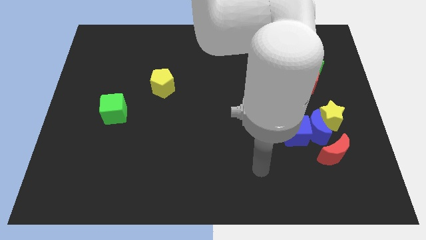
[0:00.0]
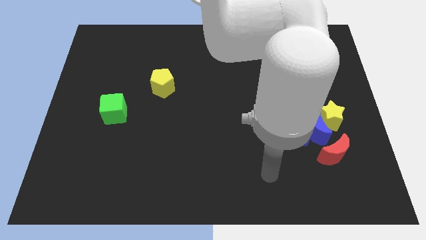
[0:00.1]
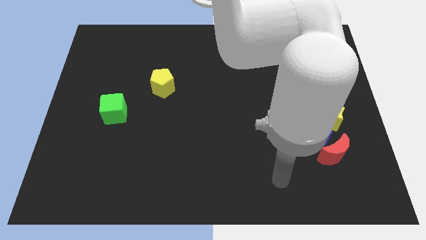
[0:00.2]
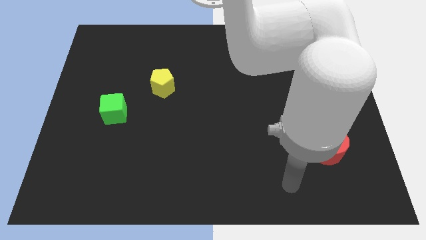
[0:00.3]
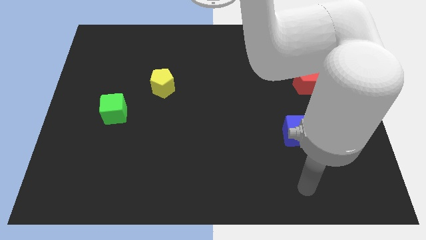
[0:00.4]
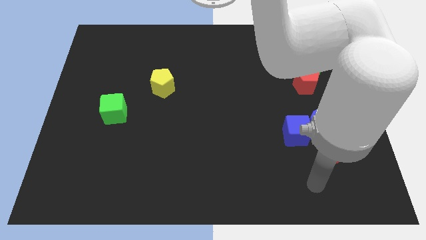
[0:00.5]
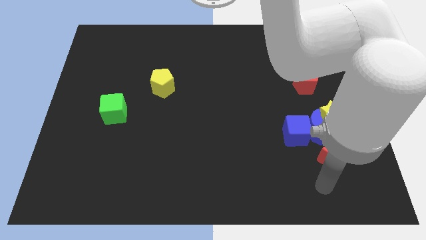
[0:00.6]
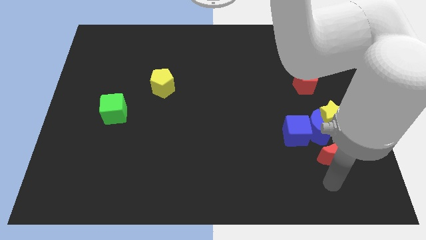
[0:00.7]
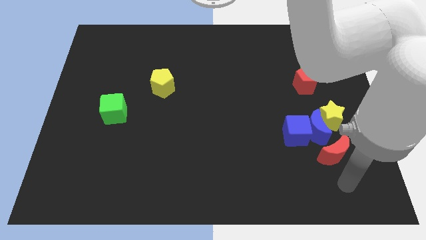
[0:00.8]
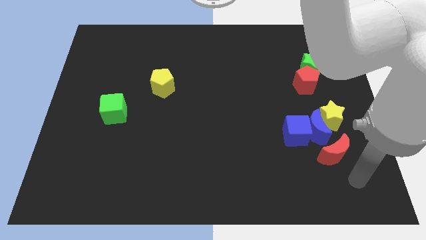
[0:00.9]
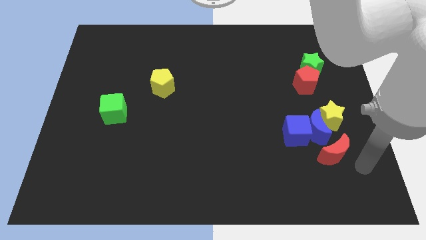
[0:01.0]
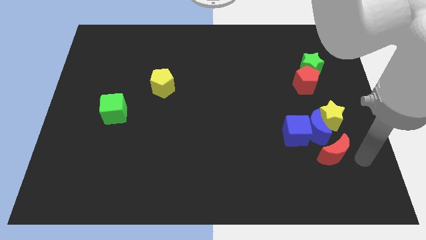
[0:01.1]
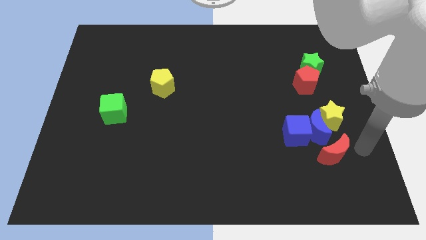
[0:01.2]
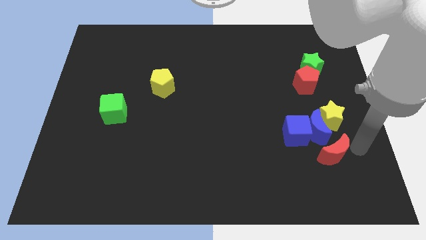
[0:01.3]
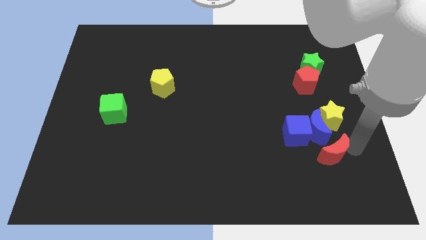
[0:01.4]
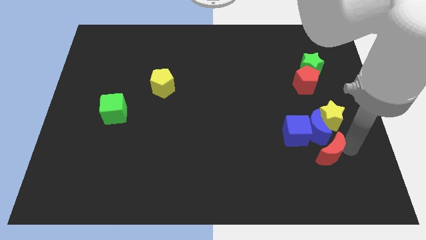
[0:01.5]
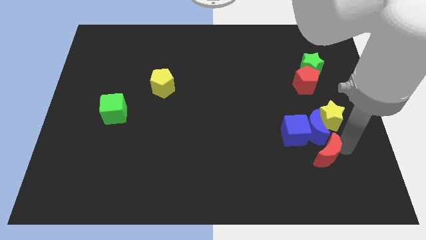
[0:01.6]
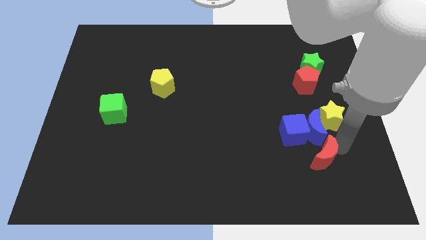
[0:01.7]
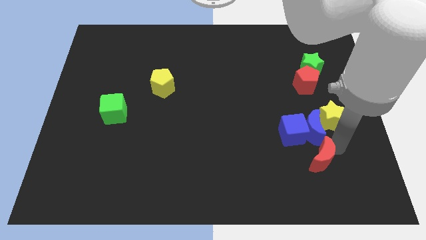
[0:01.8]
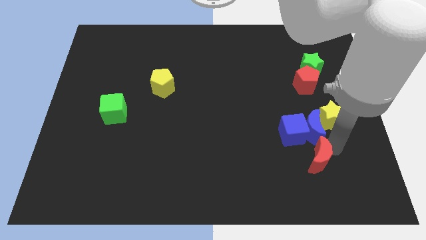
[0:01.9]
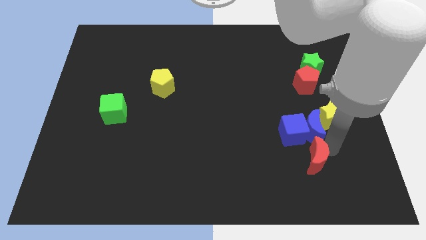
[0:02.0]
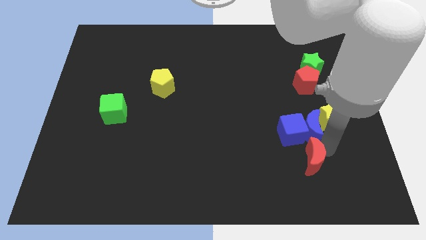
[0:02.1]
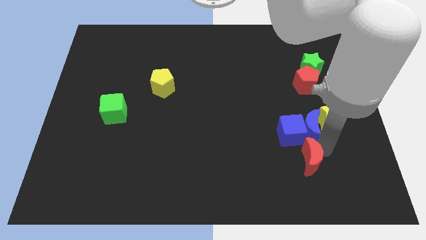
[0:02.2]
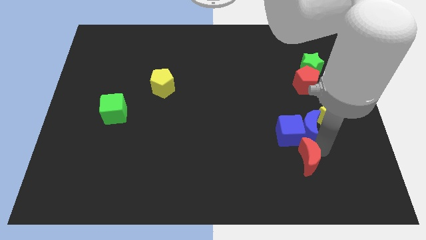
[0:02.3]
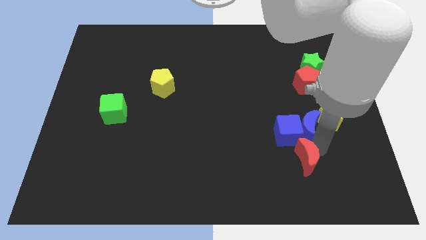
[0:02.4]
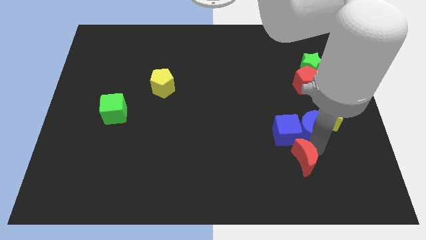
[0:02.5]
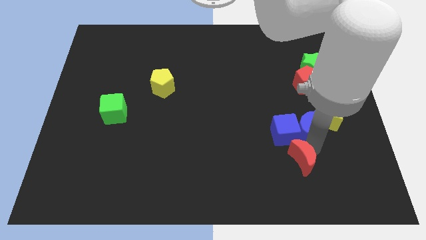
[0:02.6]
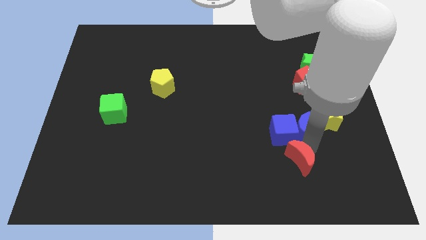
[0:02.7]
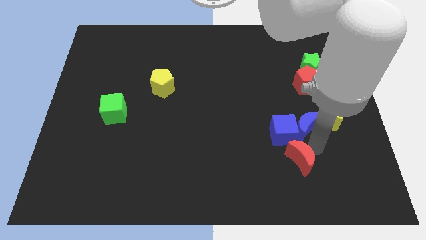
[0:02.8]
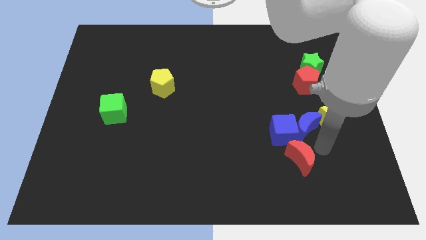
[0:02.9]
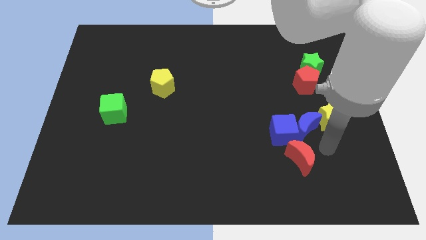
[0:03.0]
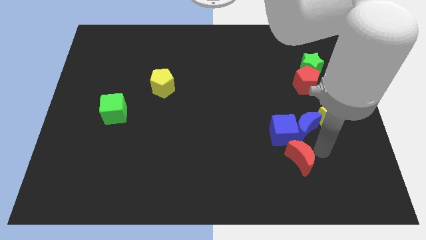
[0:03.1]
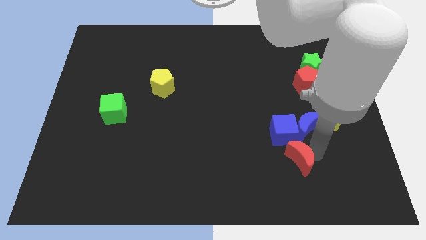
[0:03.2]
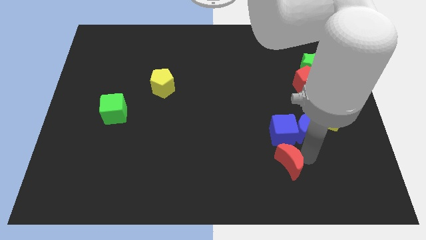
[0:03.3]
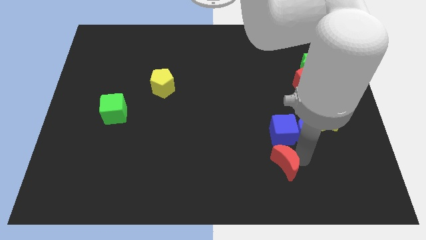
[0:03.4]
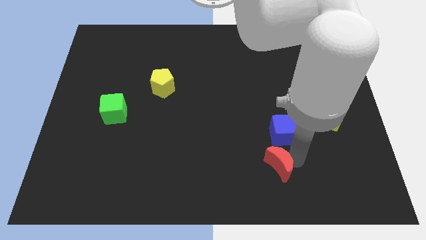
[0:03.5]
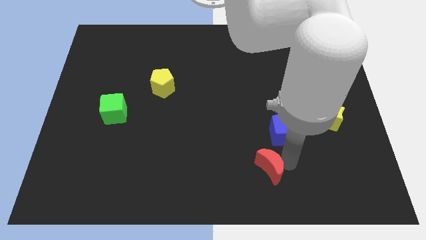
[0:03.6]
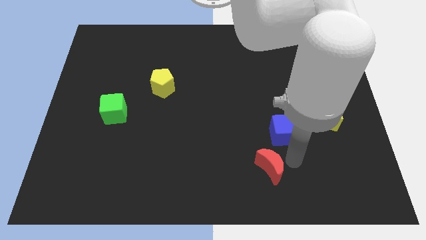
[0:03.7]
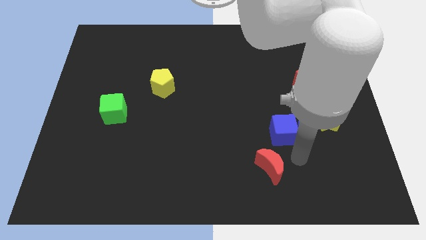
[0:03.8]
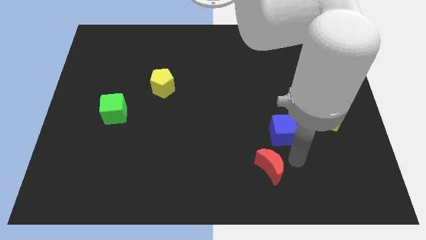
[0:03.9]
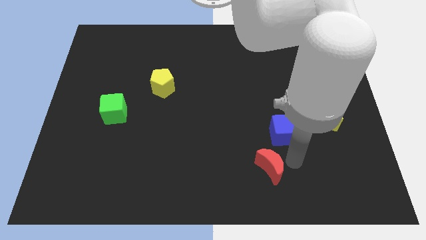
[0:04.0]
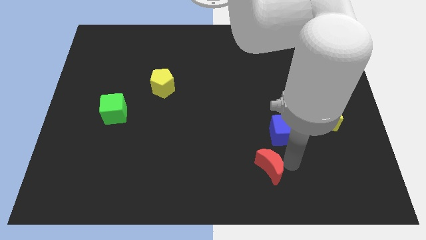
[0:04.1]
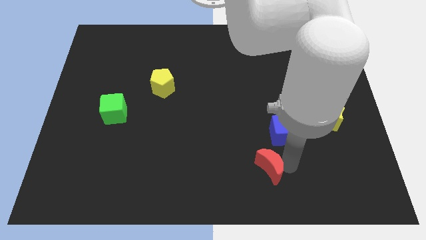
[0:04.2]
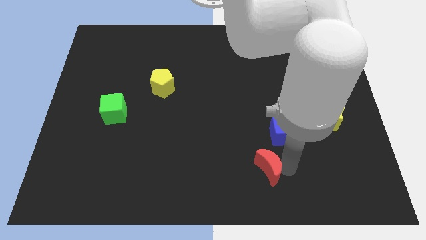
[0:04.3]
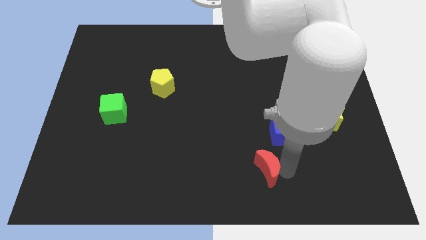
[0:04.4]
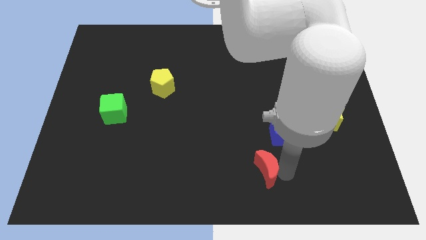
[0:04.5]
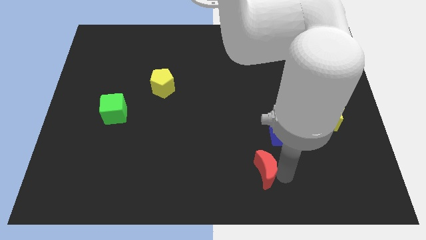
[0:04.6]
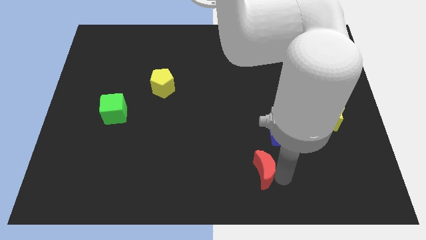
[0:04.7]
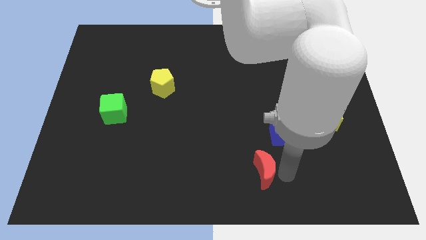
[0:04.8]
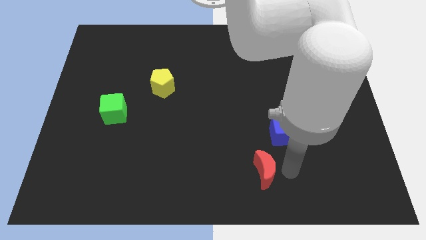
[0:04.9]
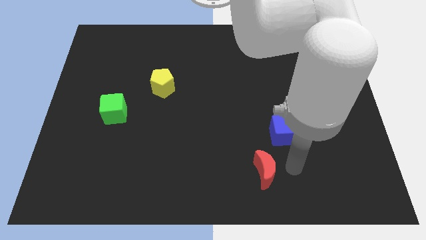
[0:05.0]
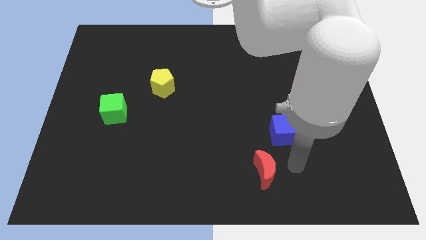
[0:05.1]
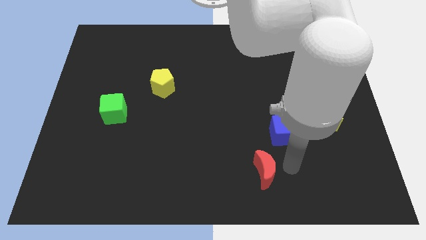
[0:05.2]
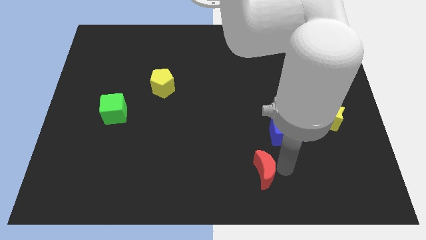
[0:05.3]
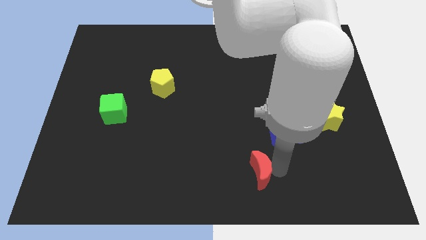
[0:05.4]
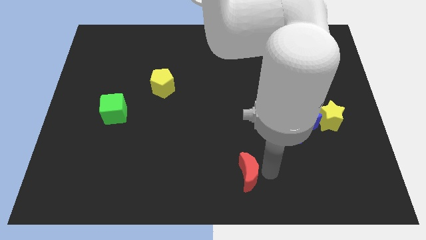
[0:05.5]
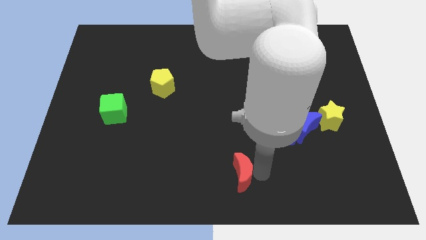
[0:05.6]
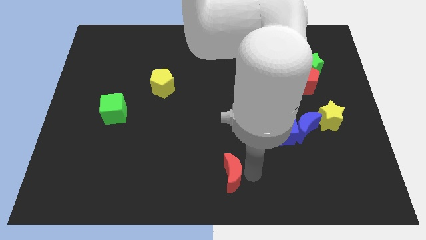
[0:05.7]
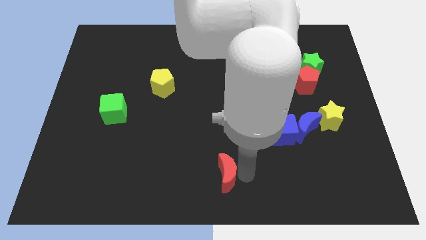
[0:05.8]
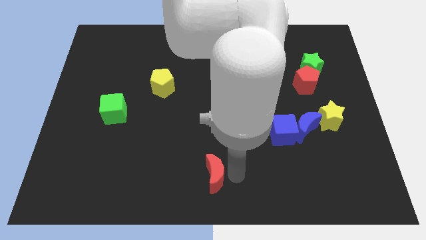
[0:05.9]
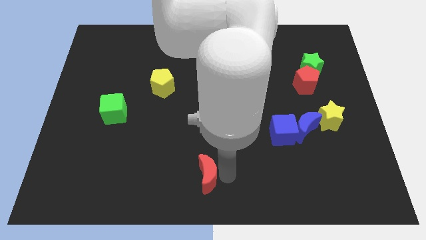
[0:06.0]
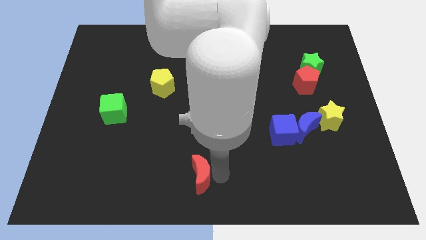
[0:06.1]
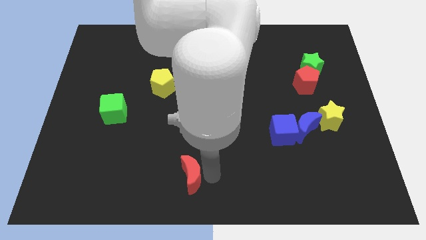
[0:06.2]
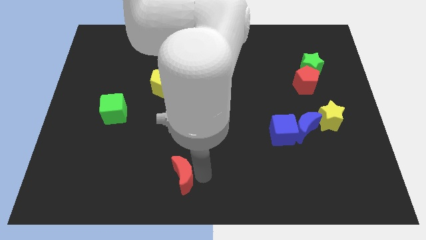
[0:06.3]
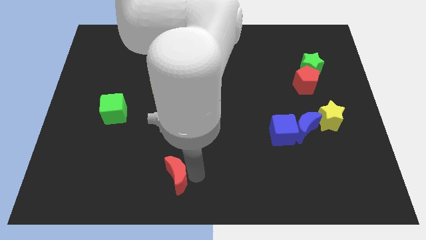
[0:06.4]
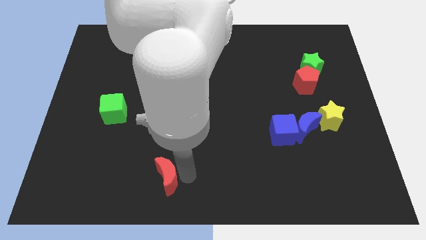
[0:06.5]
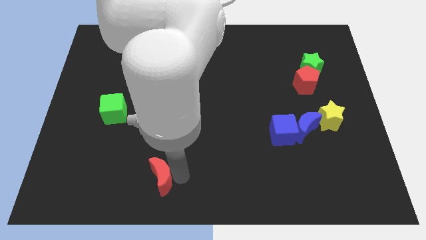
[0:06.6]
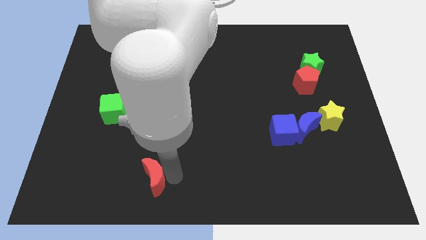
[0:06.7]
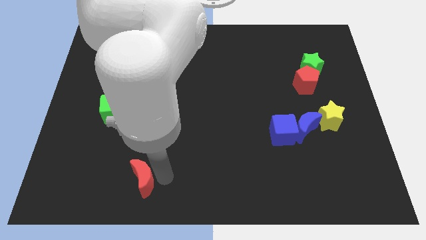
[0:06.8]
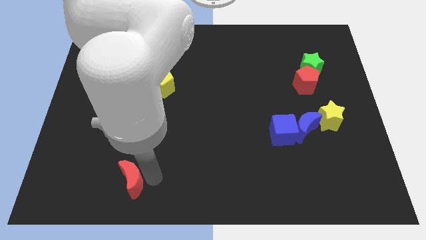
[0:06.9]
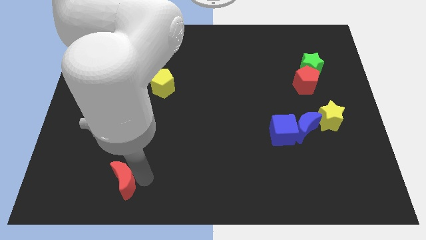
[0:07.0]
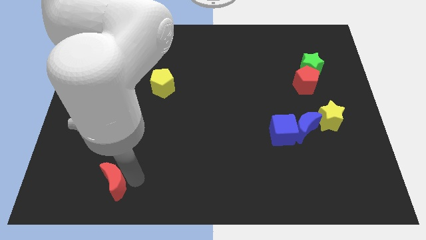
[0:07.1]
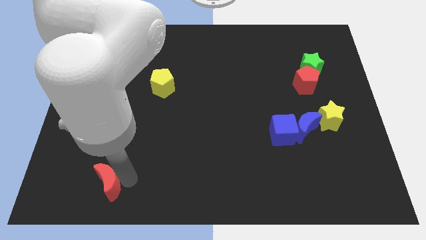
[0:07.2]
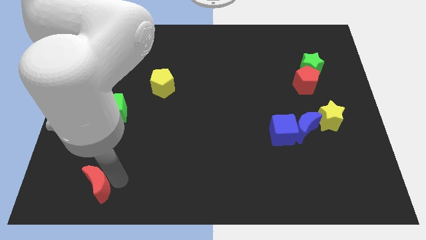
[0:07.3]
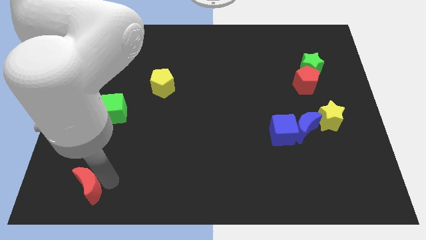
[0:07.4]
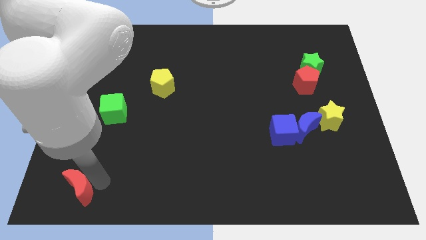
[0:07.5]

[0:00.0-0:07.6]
put the red moon to the bottom left

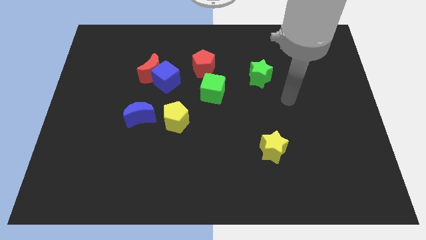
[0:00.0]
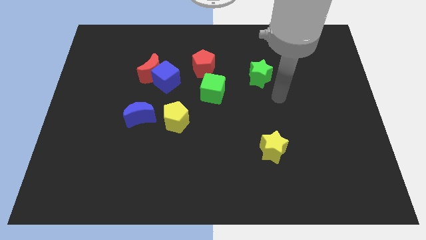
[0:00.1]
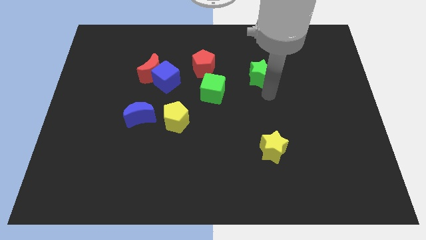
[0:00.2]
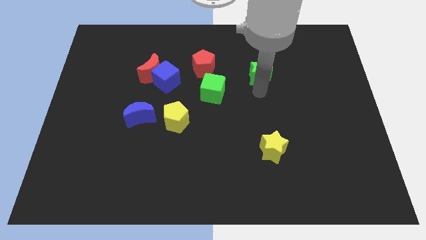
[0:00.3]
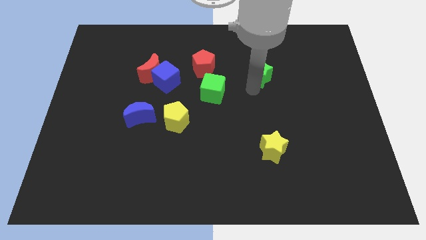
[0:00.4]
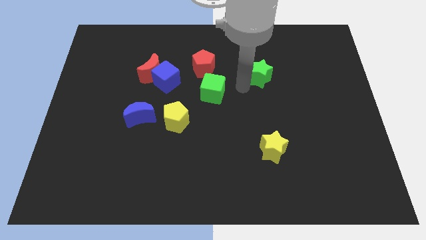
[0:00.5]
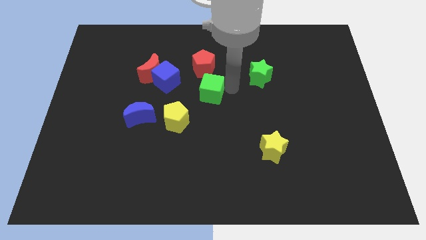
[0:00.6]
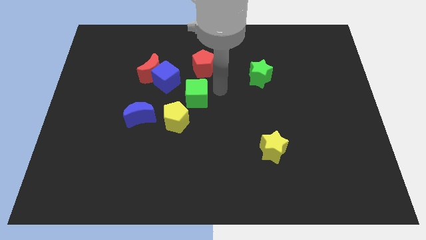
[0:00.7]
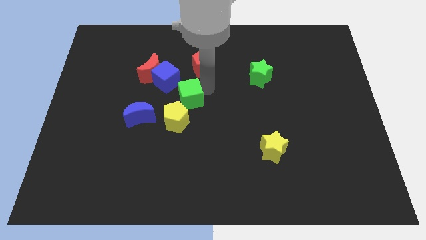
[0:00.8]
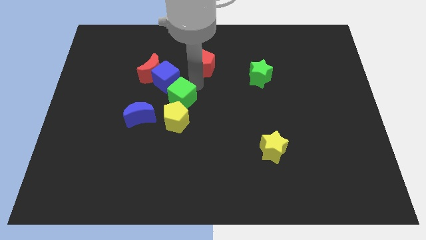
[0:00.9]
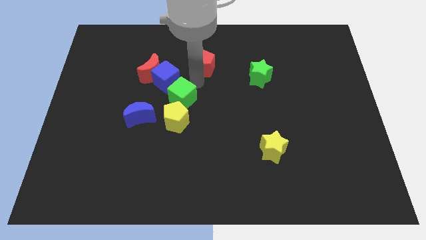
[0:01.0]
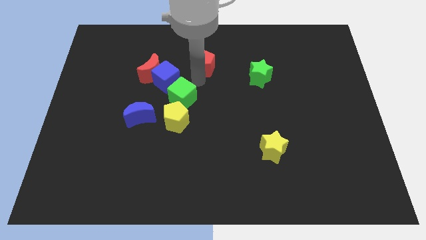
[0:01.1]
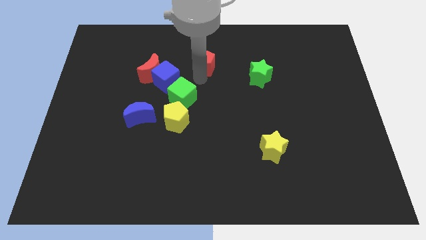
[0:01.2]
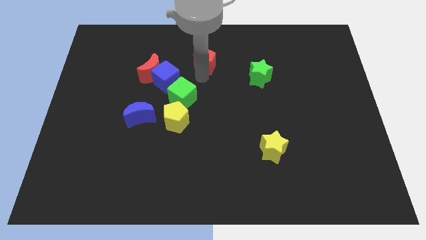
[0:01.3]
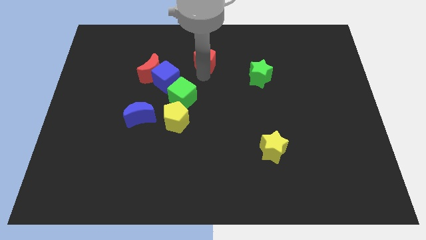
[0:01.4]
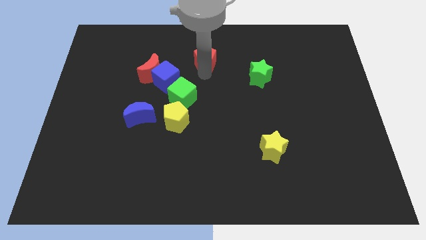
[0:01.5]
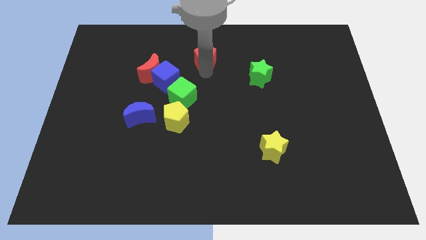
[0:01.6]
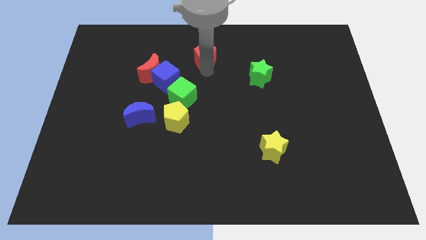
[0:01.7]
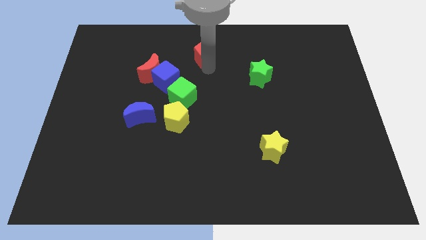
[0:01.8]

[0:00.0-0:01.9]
push the red pentagon to the top
